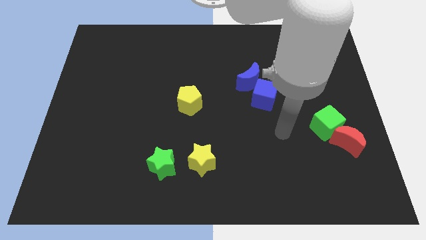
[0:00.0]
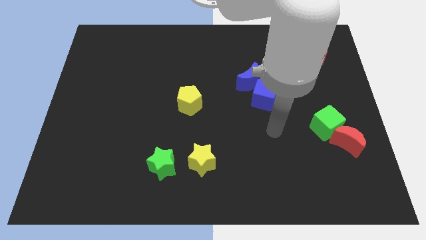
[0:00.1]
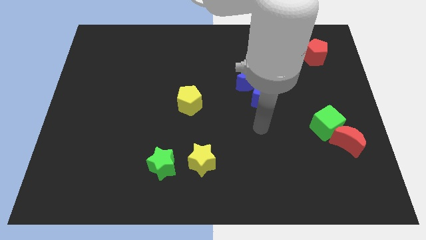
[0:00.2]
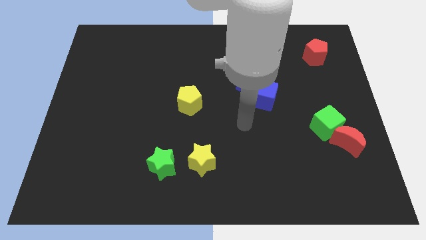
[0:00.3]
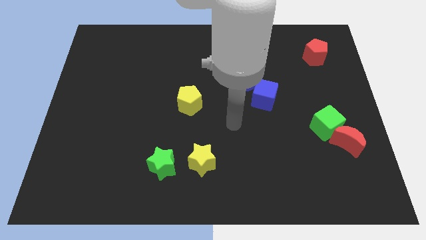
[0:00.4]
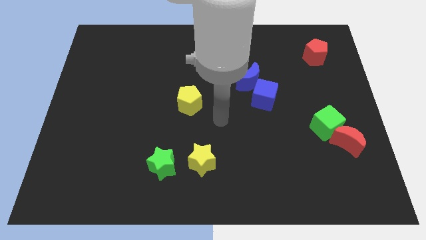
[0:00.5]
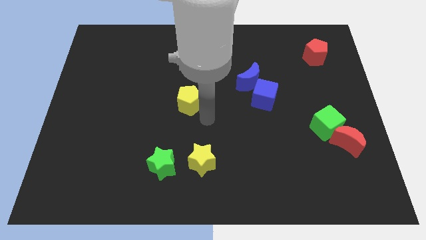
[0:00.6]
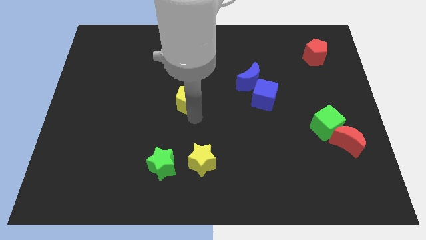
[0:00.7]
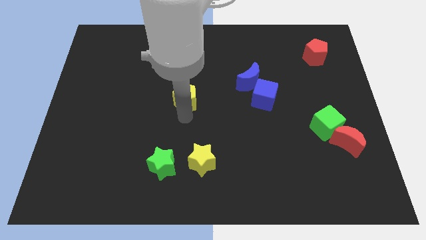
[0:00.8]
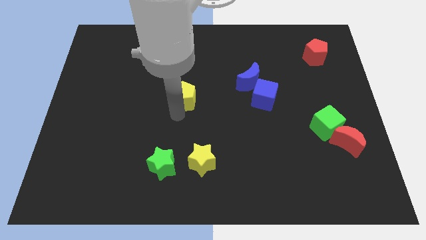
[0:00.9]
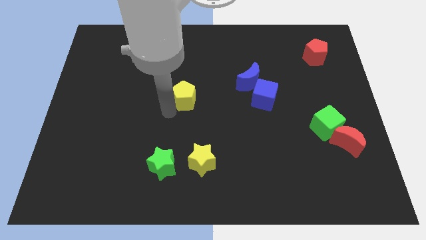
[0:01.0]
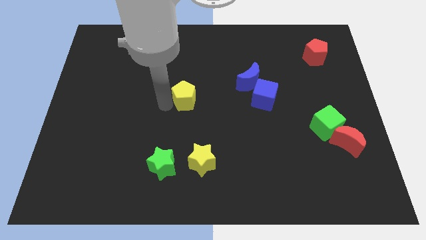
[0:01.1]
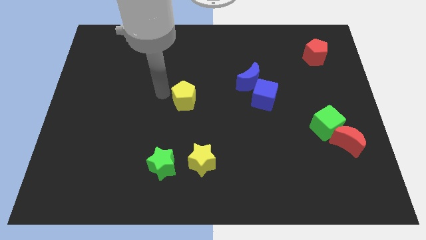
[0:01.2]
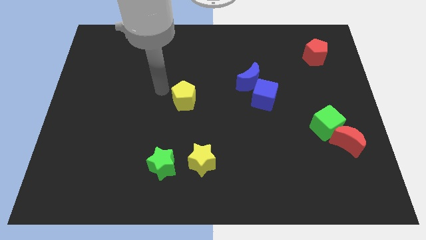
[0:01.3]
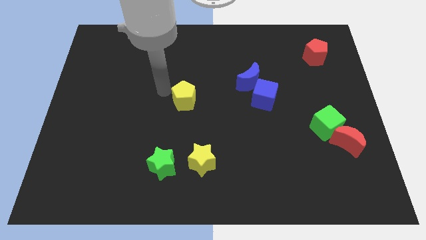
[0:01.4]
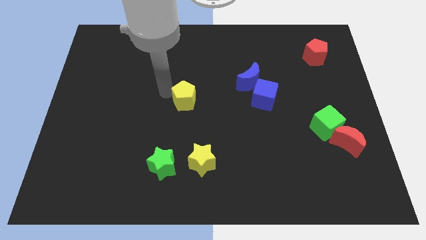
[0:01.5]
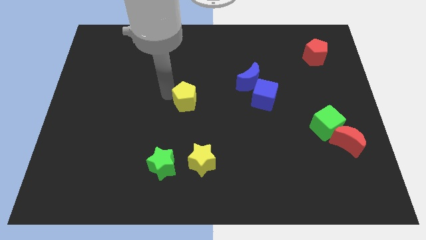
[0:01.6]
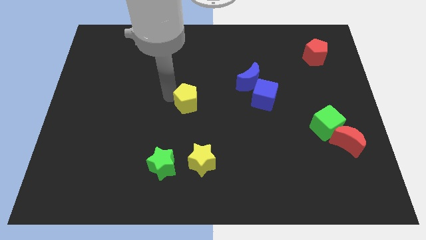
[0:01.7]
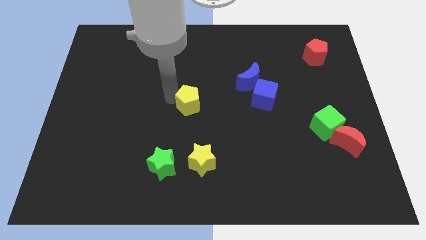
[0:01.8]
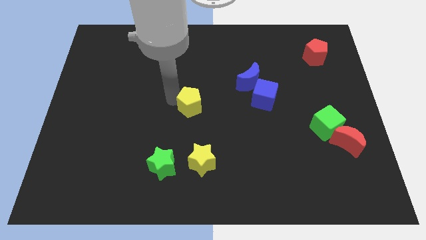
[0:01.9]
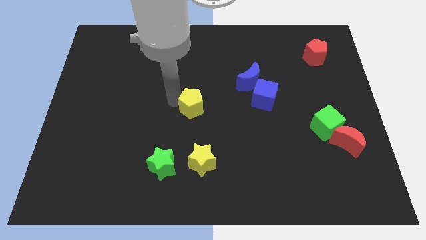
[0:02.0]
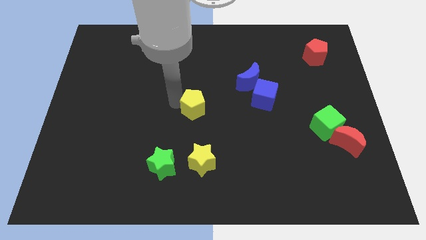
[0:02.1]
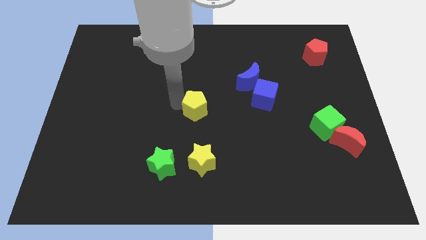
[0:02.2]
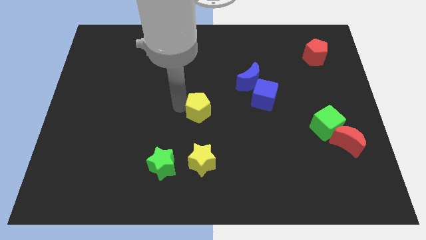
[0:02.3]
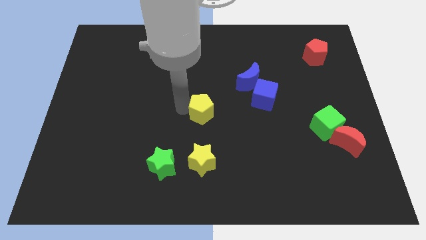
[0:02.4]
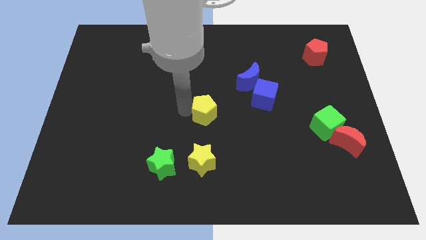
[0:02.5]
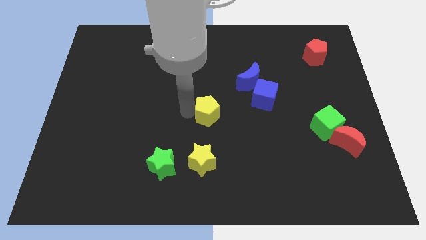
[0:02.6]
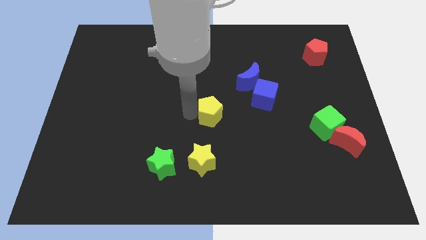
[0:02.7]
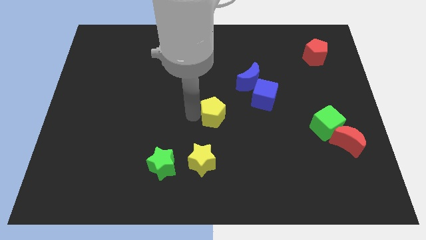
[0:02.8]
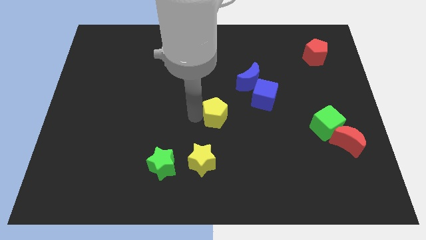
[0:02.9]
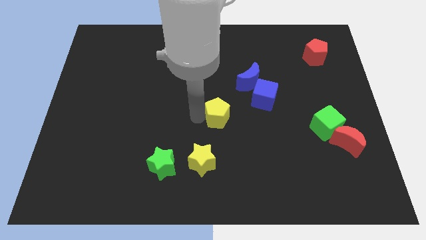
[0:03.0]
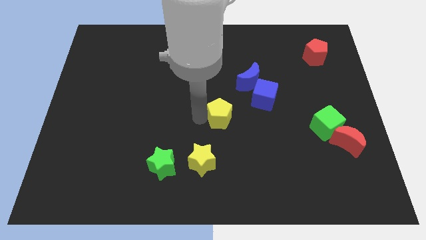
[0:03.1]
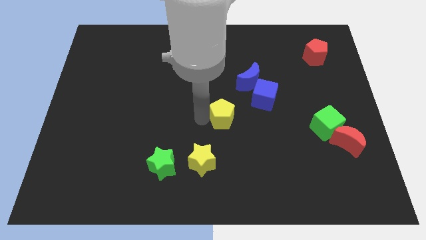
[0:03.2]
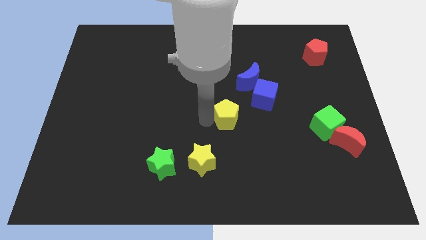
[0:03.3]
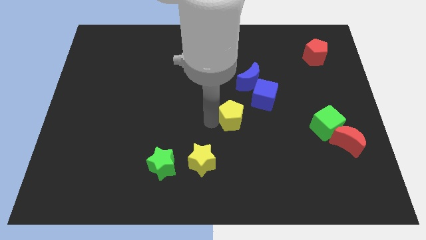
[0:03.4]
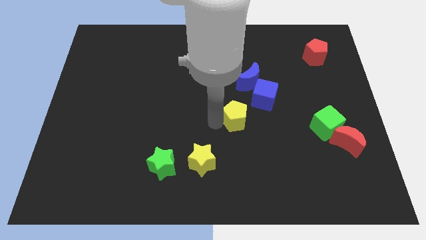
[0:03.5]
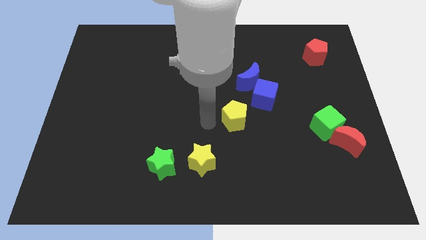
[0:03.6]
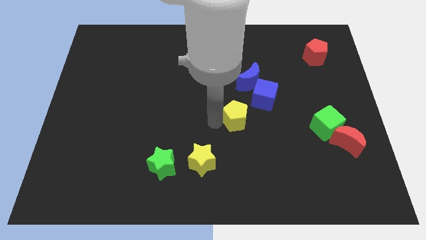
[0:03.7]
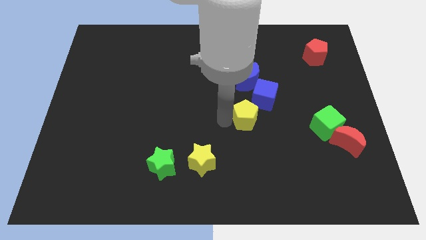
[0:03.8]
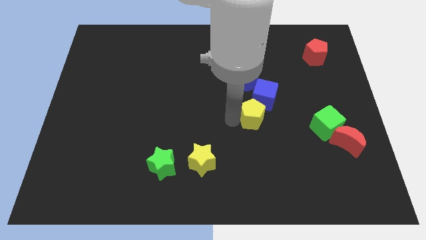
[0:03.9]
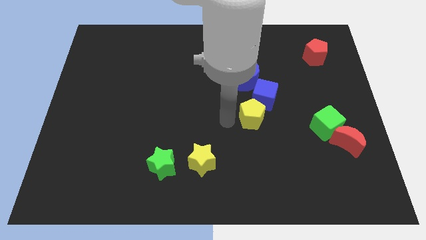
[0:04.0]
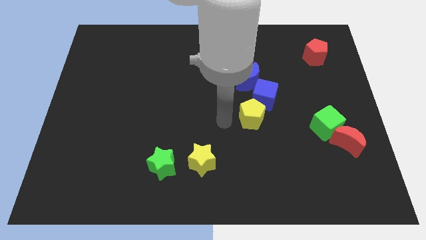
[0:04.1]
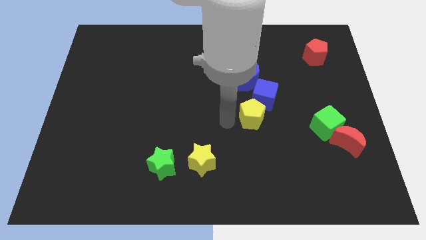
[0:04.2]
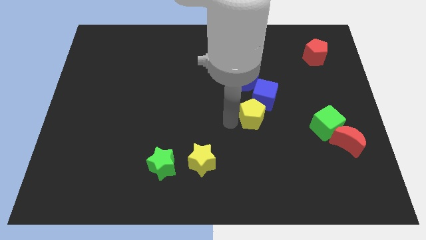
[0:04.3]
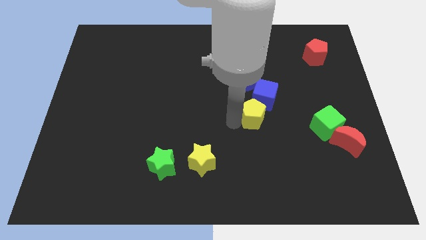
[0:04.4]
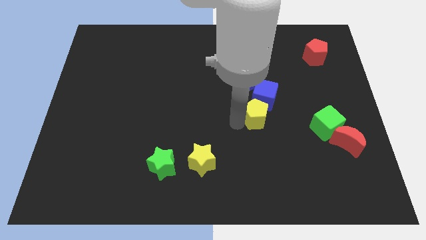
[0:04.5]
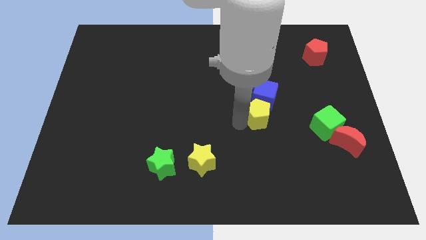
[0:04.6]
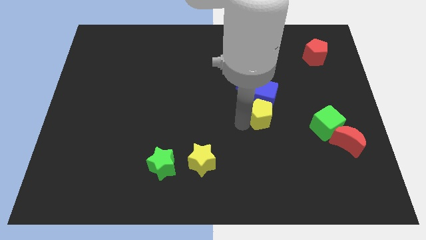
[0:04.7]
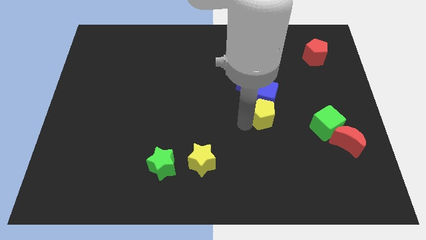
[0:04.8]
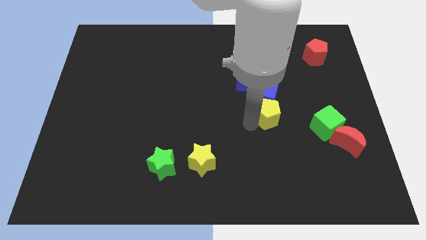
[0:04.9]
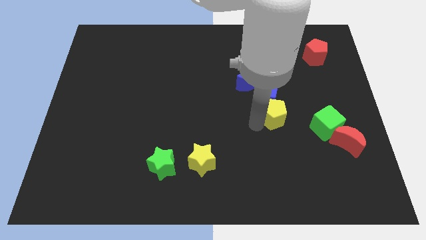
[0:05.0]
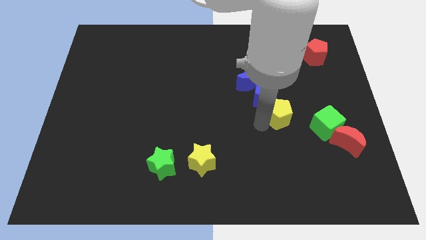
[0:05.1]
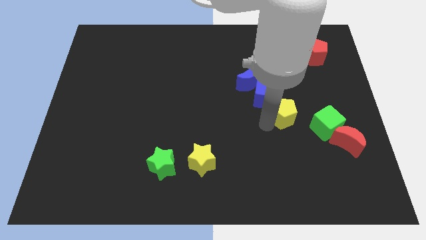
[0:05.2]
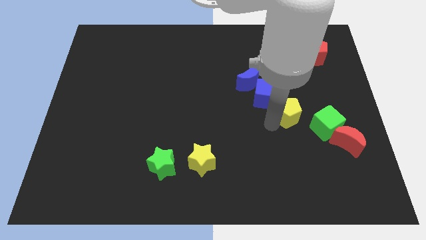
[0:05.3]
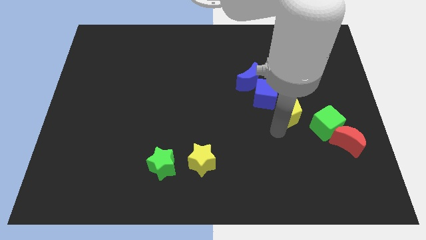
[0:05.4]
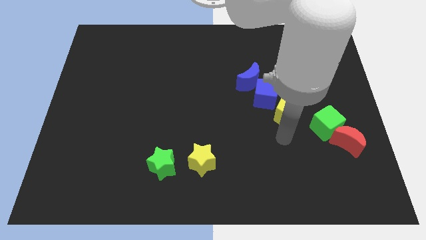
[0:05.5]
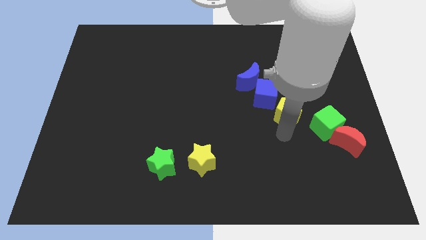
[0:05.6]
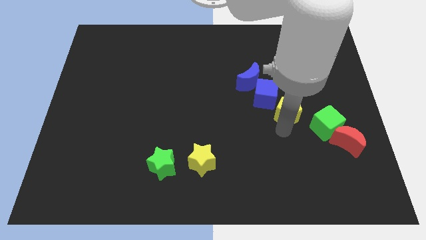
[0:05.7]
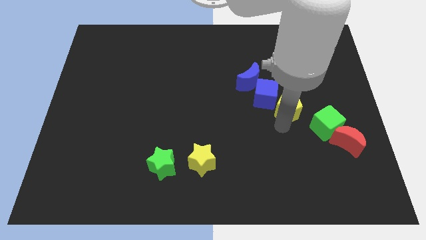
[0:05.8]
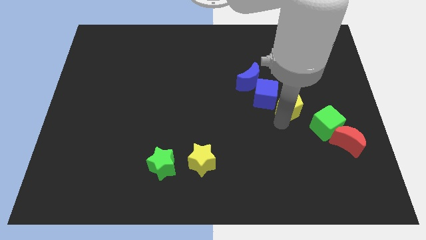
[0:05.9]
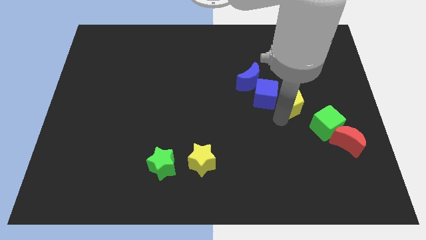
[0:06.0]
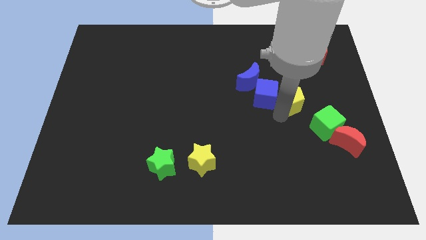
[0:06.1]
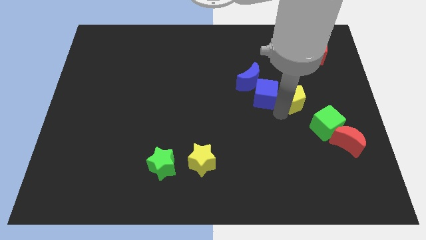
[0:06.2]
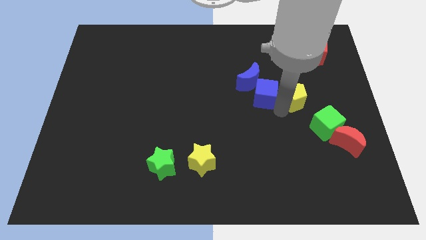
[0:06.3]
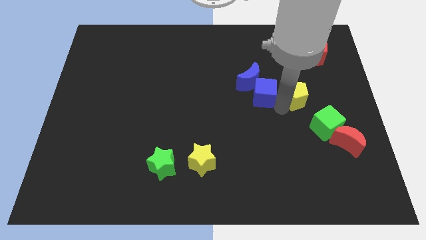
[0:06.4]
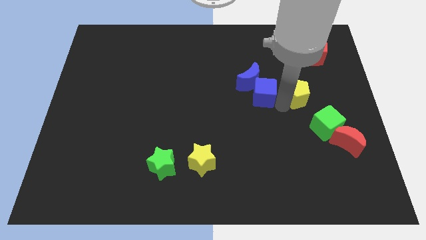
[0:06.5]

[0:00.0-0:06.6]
move the yellow pentagon just right of the blue moon

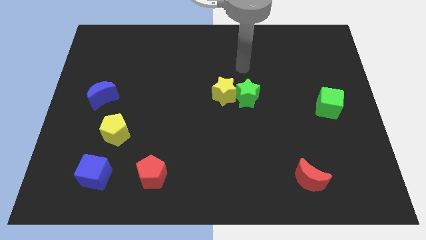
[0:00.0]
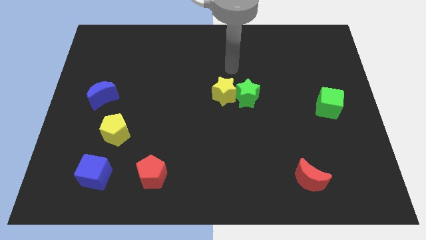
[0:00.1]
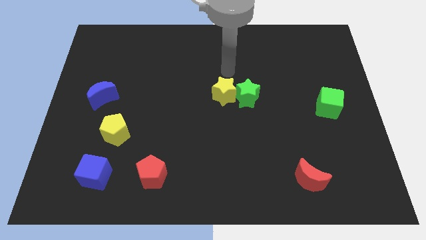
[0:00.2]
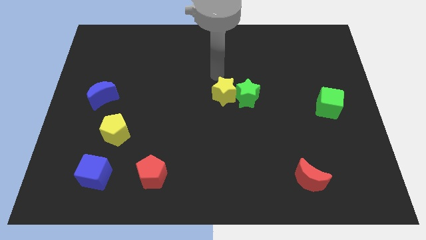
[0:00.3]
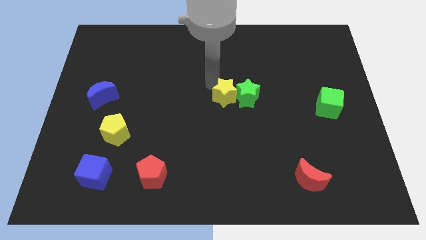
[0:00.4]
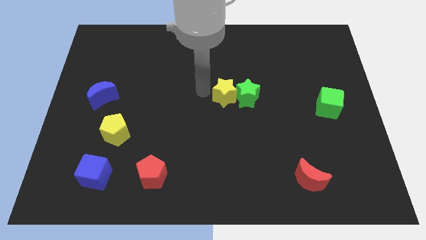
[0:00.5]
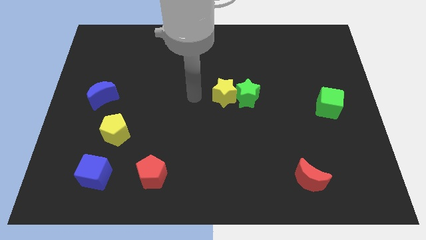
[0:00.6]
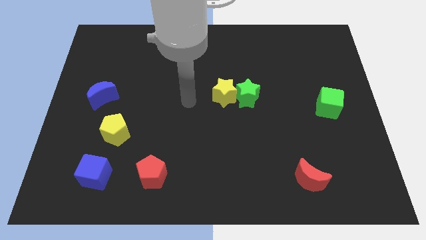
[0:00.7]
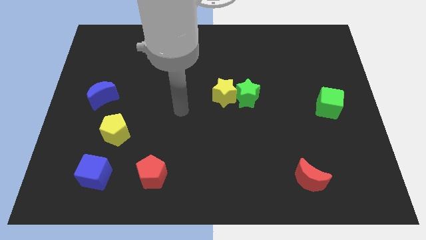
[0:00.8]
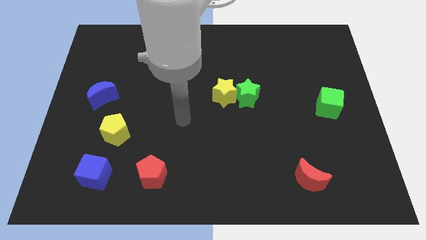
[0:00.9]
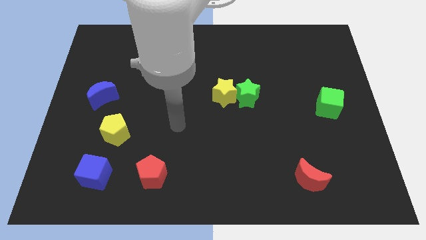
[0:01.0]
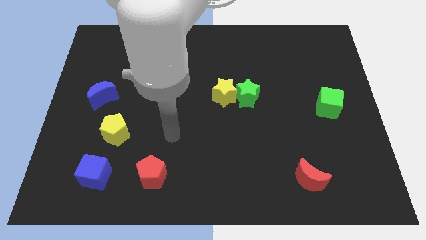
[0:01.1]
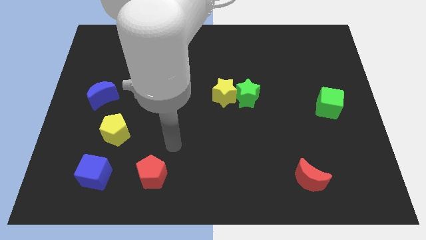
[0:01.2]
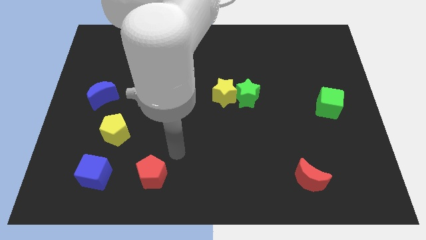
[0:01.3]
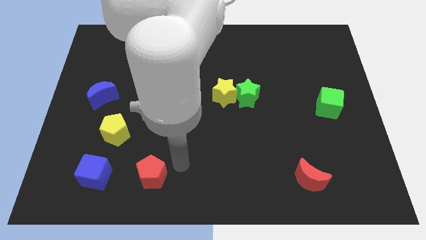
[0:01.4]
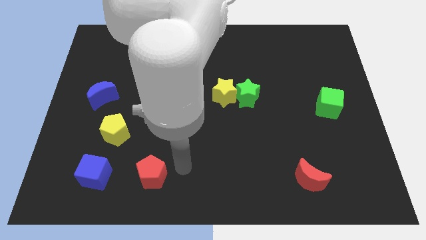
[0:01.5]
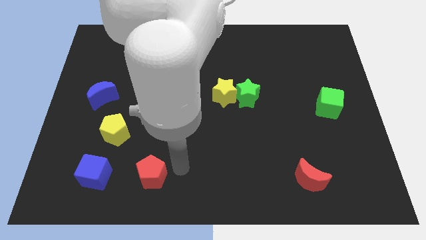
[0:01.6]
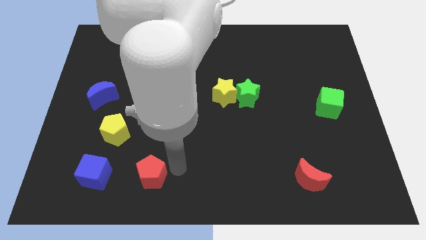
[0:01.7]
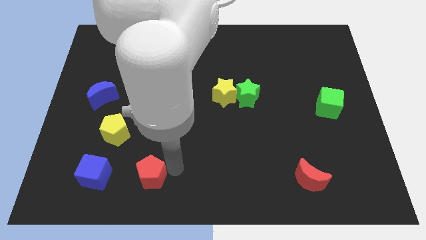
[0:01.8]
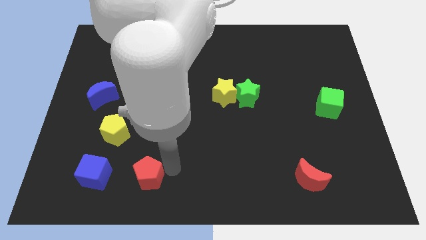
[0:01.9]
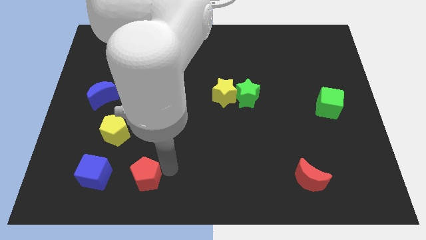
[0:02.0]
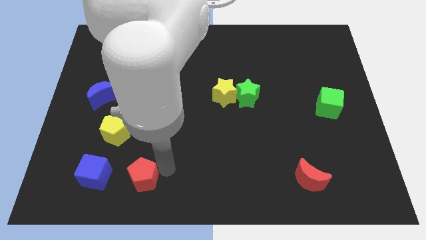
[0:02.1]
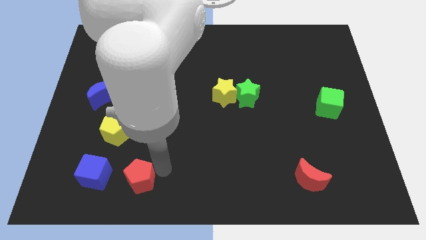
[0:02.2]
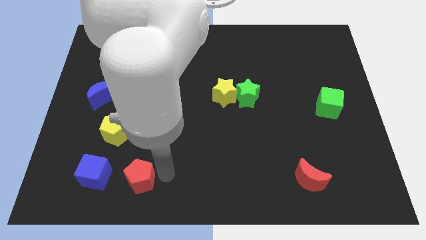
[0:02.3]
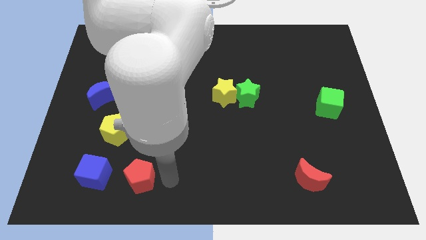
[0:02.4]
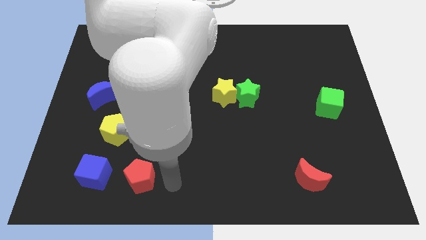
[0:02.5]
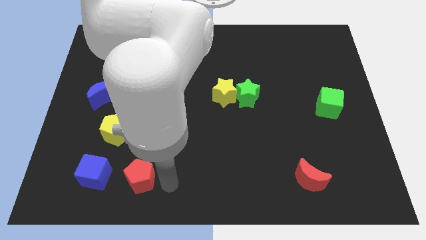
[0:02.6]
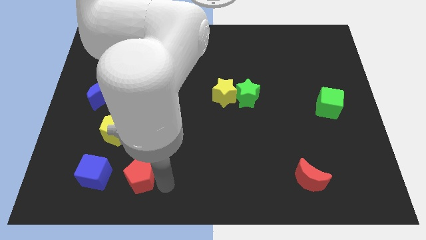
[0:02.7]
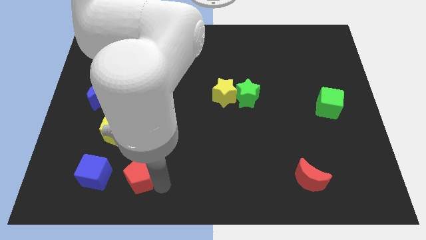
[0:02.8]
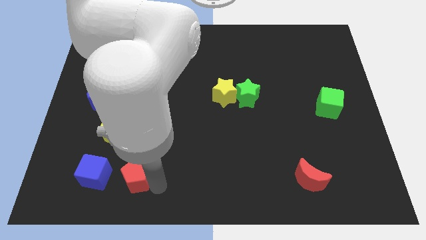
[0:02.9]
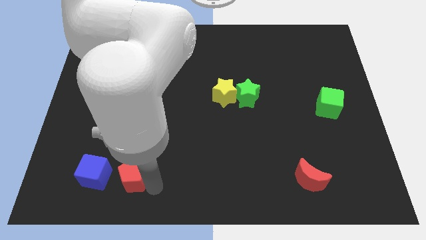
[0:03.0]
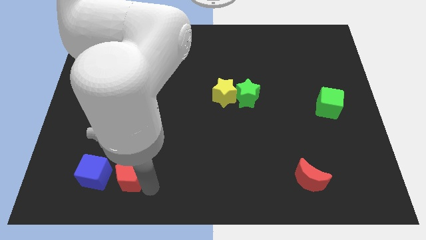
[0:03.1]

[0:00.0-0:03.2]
put the red pentagon to the bottom side of the yellow pentagon
